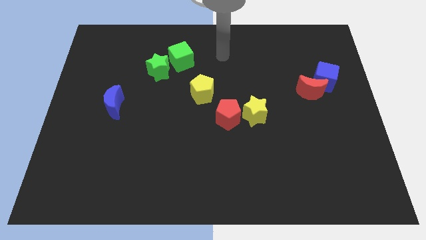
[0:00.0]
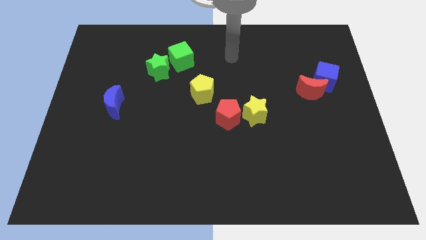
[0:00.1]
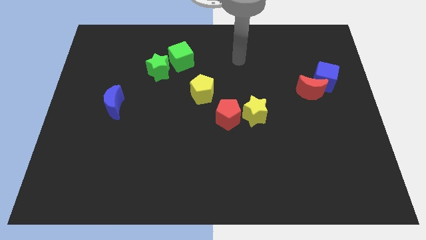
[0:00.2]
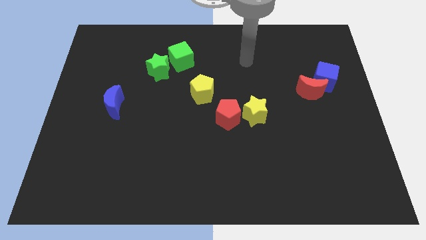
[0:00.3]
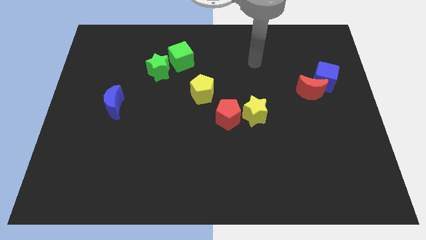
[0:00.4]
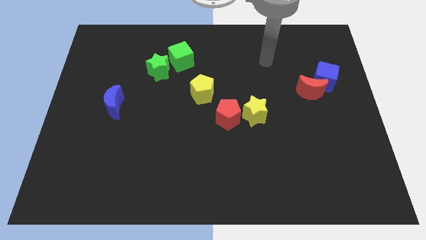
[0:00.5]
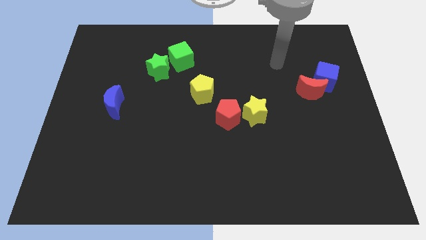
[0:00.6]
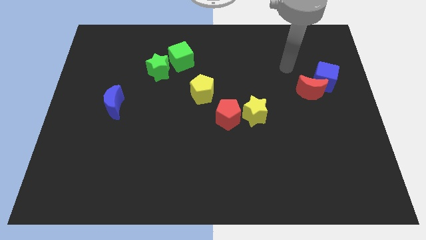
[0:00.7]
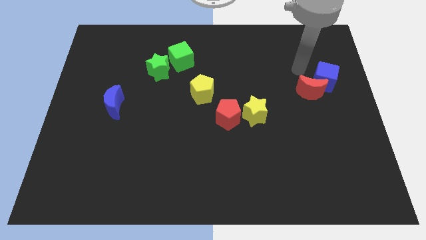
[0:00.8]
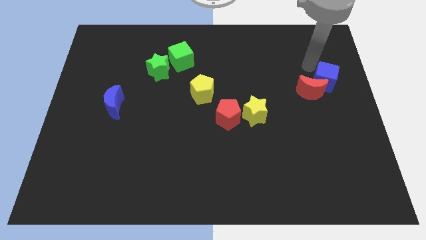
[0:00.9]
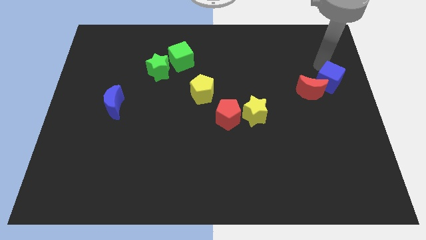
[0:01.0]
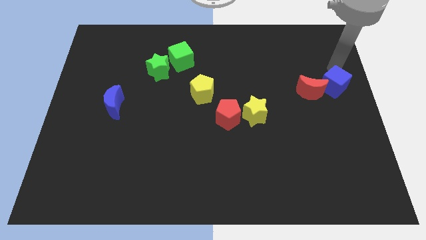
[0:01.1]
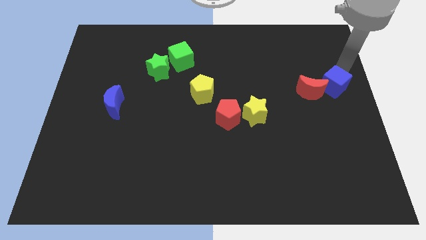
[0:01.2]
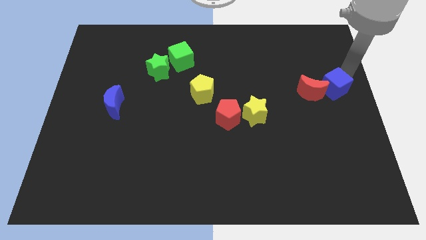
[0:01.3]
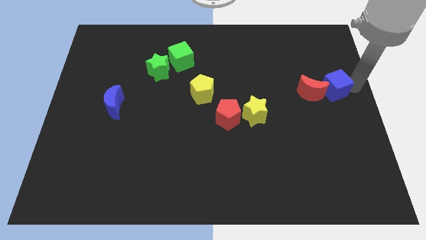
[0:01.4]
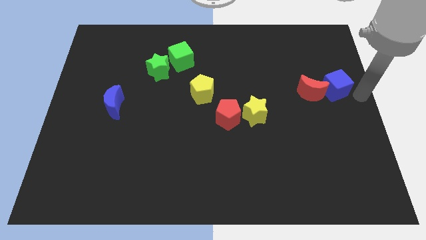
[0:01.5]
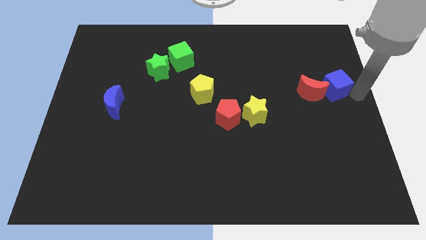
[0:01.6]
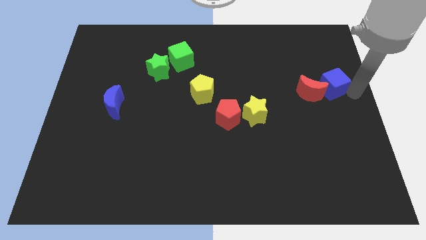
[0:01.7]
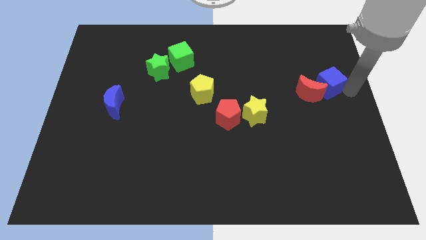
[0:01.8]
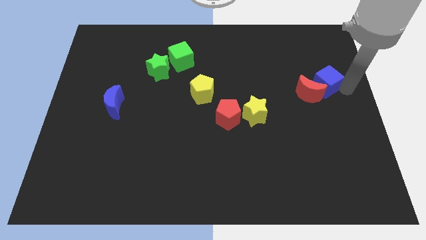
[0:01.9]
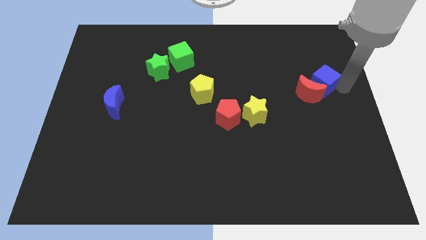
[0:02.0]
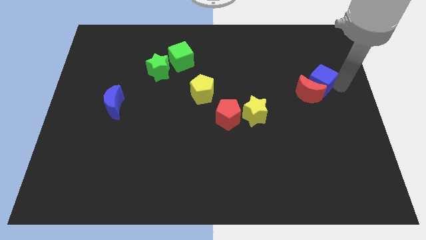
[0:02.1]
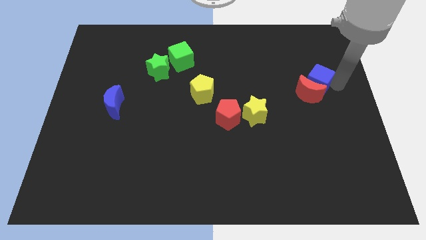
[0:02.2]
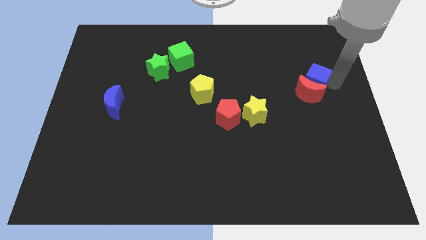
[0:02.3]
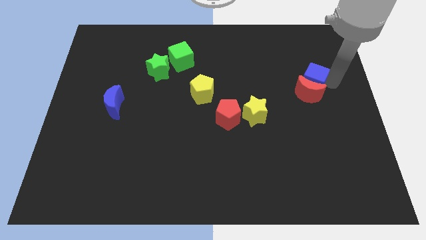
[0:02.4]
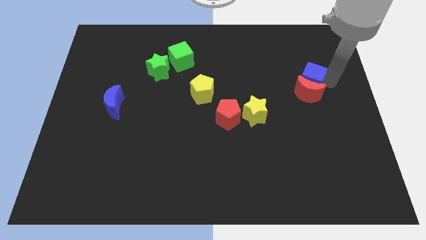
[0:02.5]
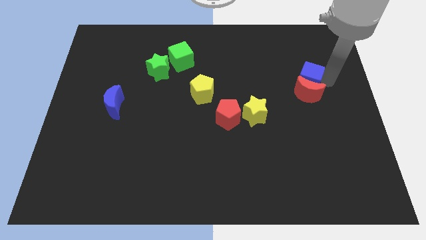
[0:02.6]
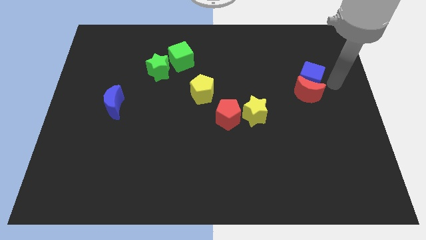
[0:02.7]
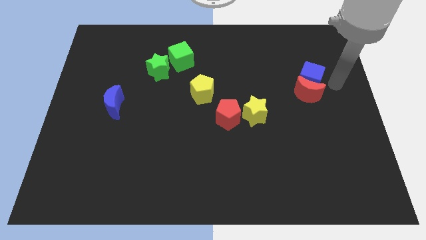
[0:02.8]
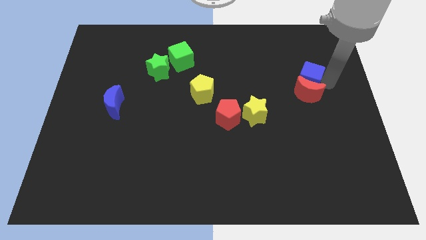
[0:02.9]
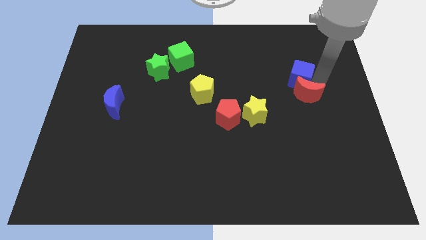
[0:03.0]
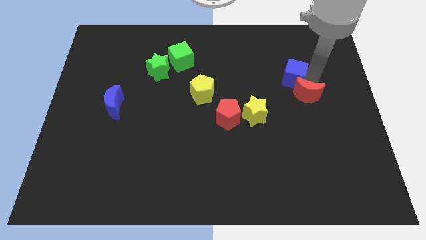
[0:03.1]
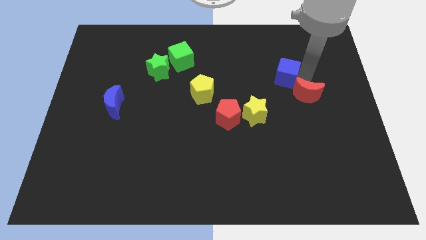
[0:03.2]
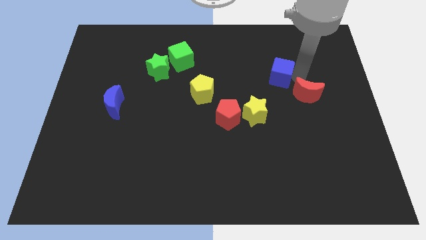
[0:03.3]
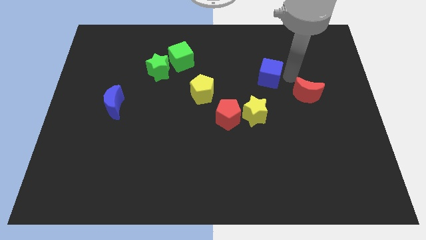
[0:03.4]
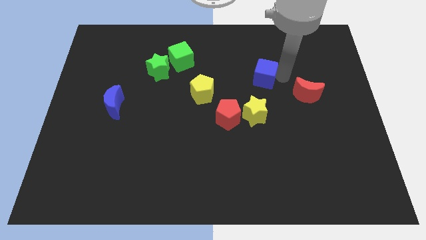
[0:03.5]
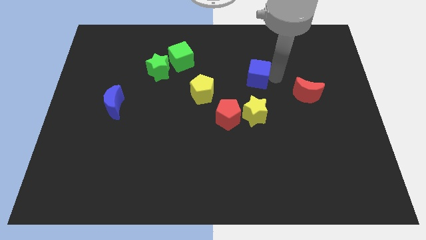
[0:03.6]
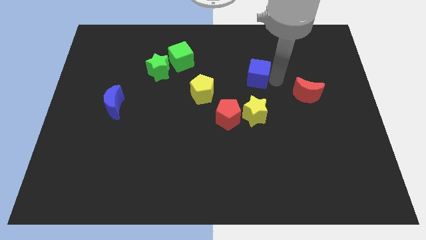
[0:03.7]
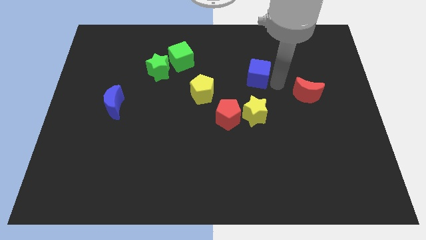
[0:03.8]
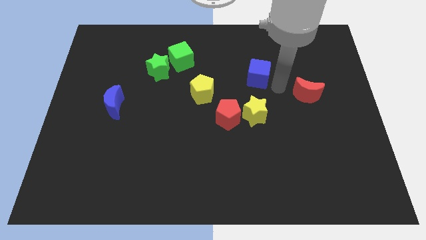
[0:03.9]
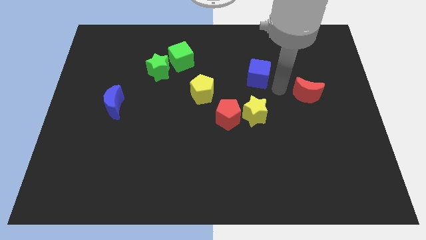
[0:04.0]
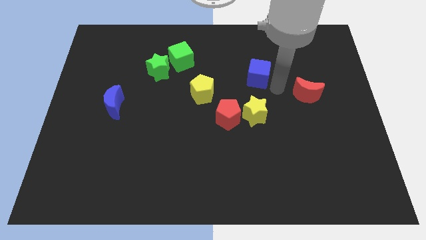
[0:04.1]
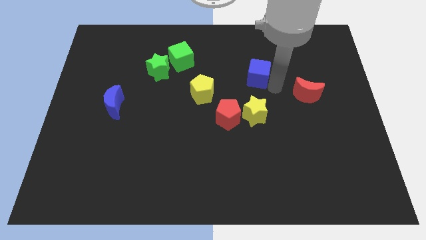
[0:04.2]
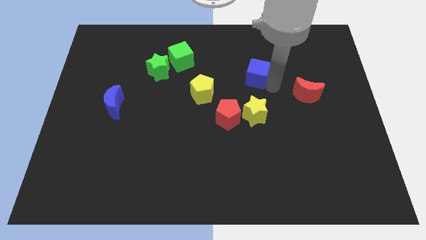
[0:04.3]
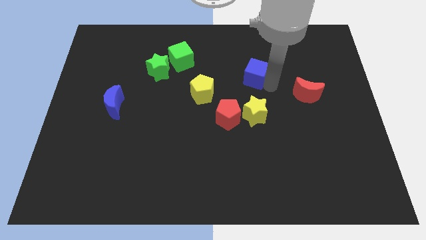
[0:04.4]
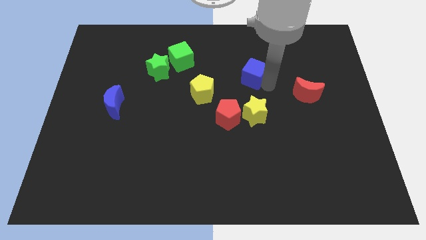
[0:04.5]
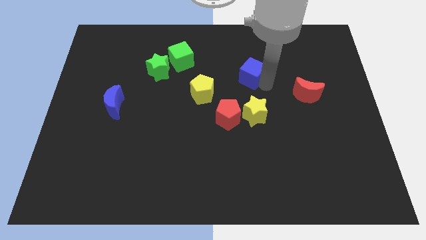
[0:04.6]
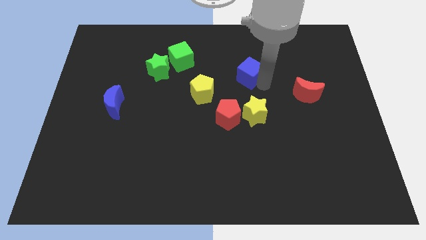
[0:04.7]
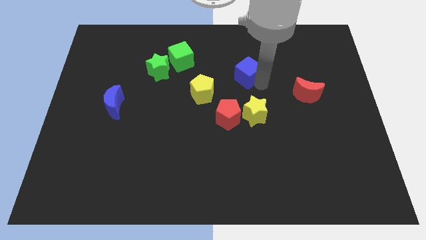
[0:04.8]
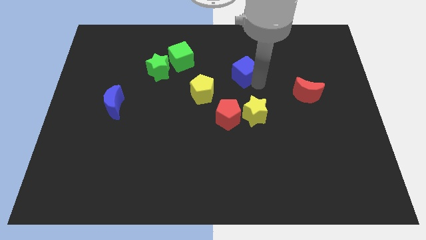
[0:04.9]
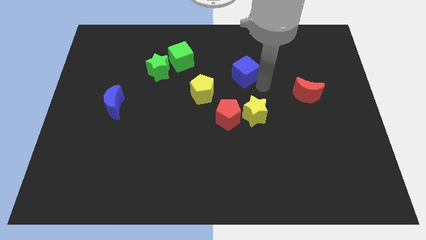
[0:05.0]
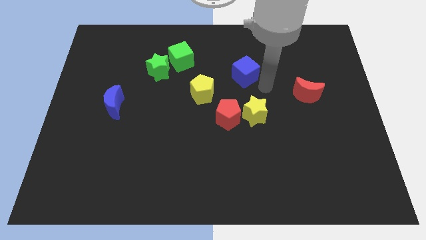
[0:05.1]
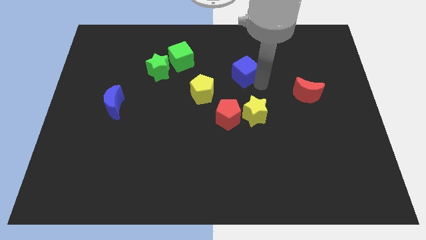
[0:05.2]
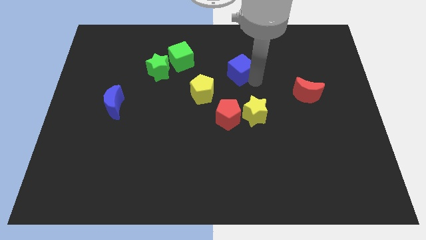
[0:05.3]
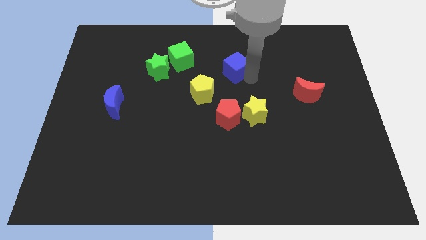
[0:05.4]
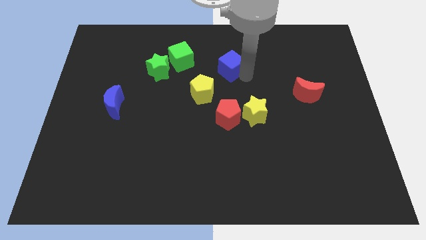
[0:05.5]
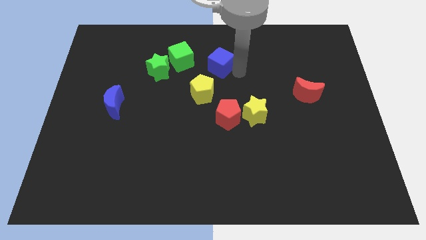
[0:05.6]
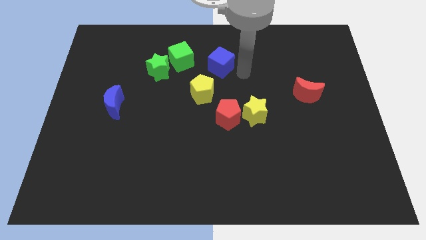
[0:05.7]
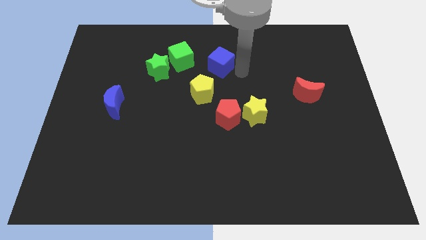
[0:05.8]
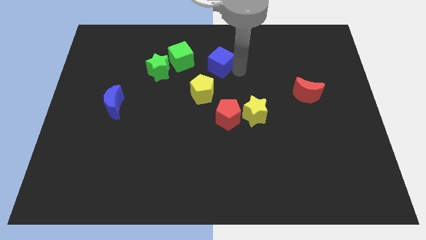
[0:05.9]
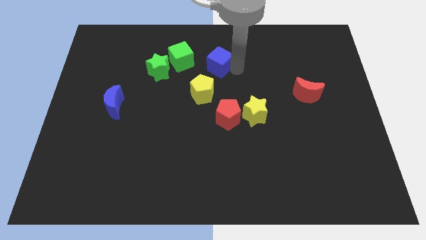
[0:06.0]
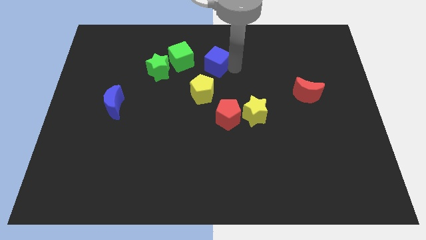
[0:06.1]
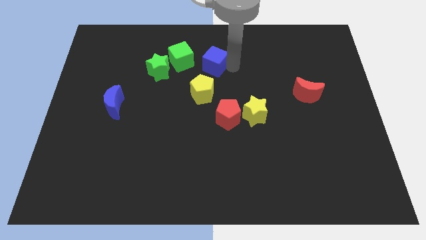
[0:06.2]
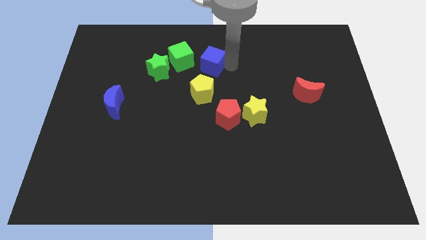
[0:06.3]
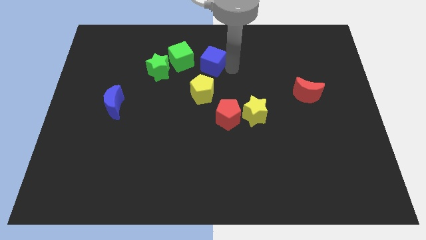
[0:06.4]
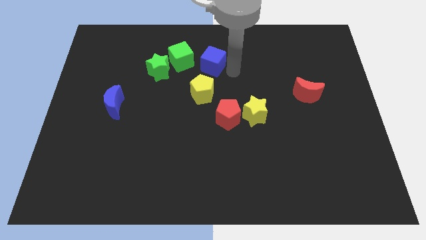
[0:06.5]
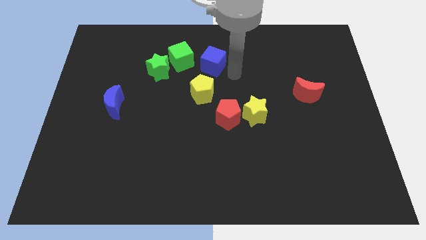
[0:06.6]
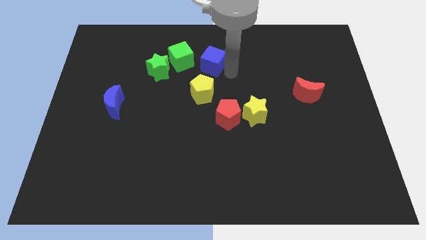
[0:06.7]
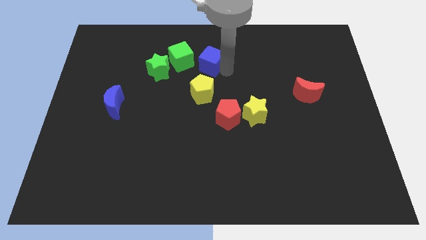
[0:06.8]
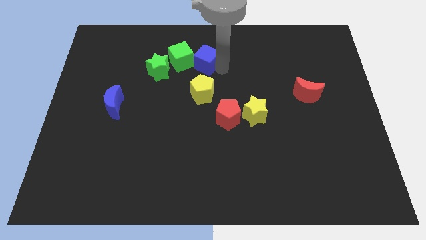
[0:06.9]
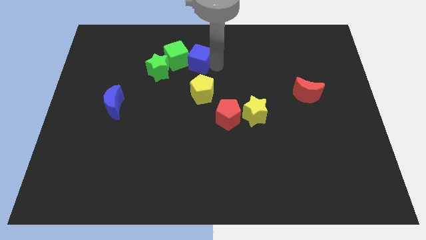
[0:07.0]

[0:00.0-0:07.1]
slide the blue cube next to the green cube
